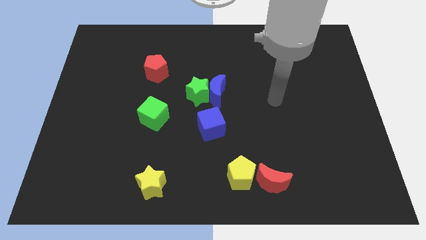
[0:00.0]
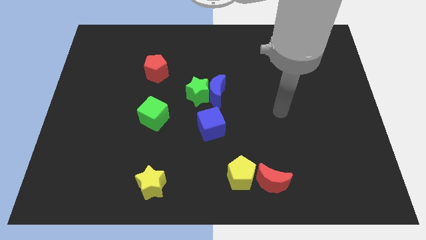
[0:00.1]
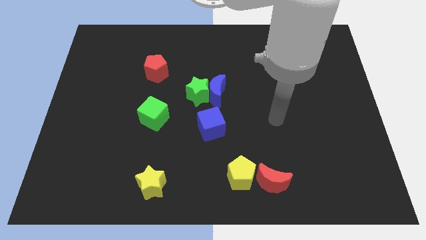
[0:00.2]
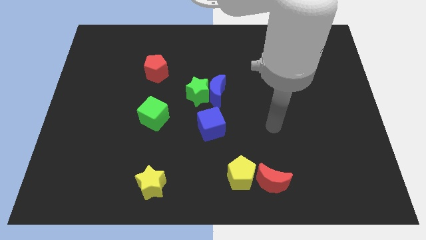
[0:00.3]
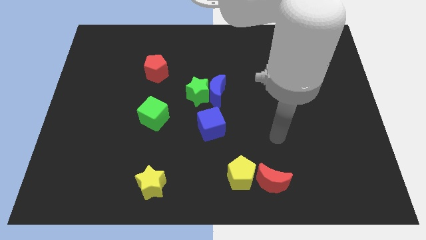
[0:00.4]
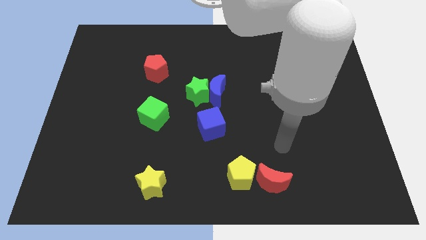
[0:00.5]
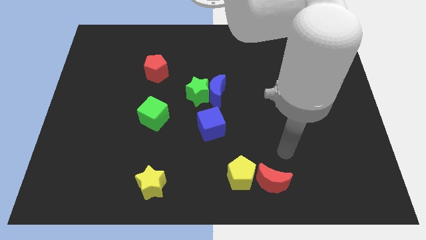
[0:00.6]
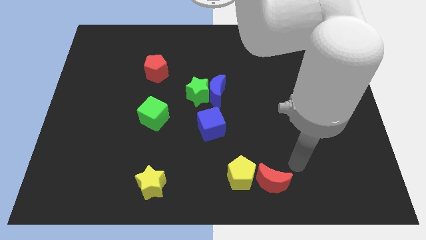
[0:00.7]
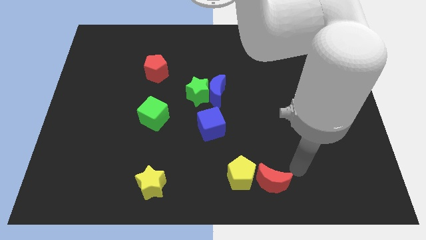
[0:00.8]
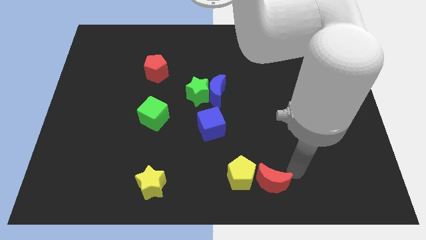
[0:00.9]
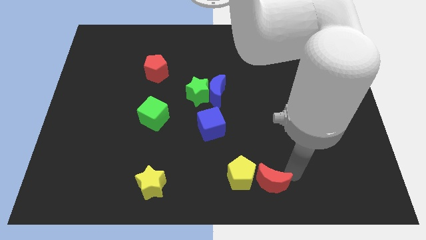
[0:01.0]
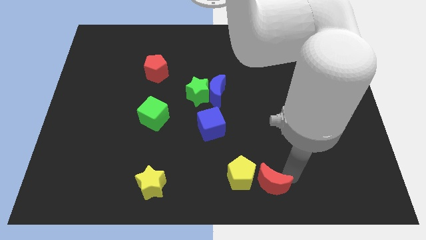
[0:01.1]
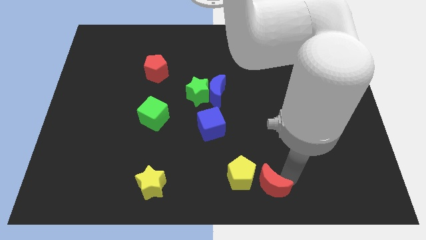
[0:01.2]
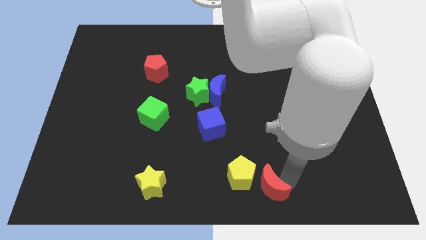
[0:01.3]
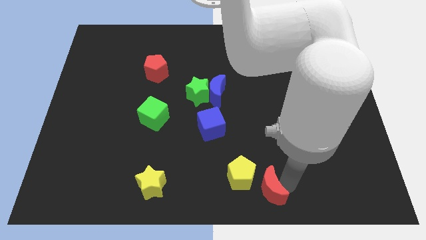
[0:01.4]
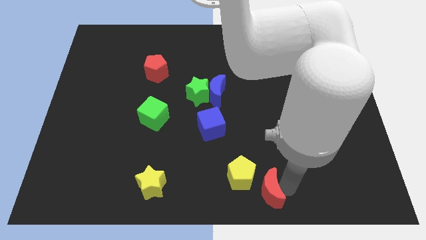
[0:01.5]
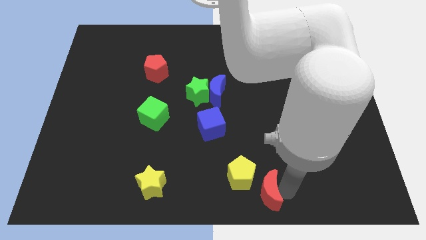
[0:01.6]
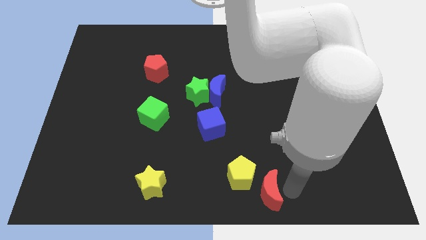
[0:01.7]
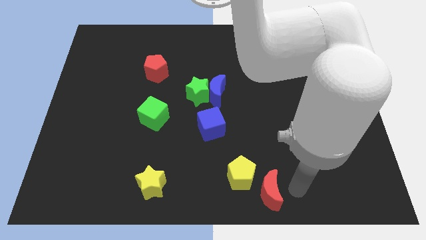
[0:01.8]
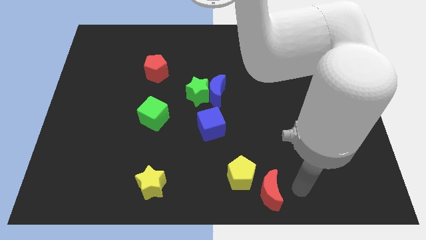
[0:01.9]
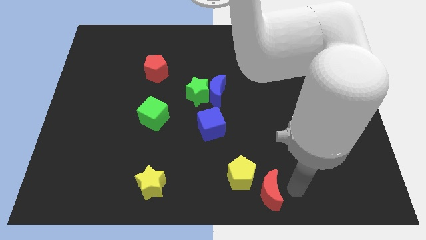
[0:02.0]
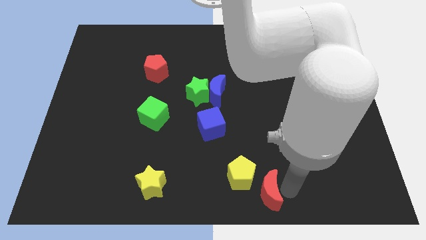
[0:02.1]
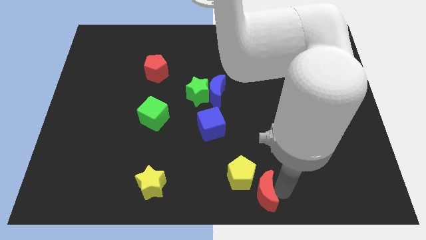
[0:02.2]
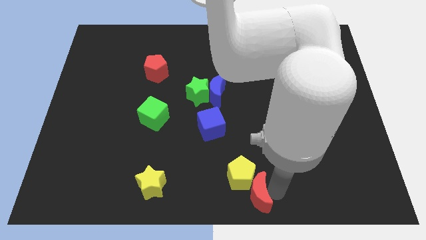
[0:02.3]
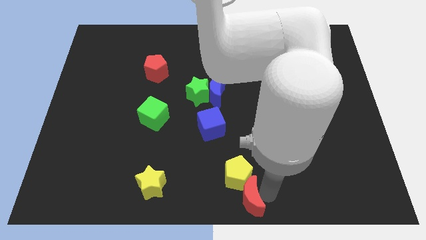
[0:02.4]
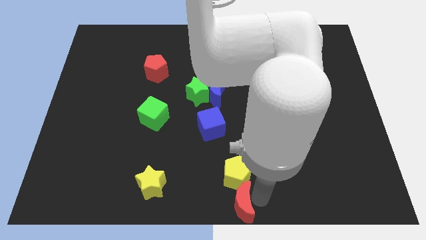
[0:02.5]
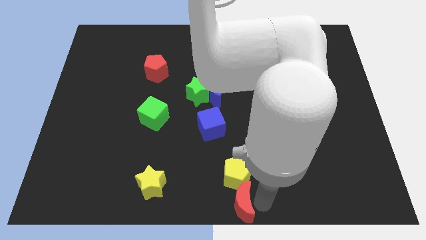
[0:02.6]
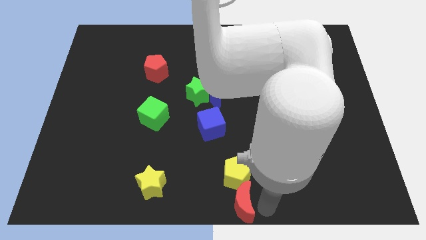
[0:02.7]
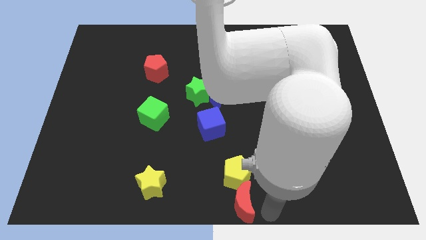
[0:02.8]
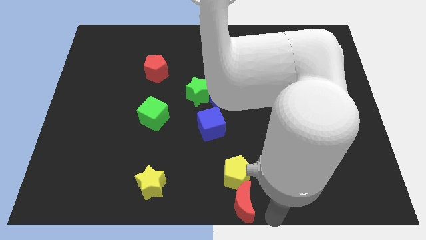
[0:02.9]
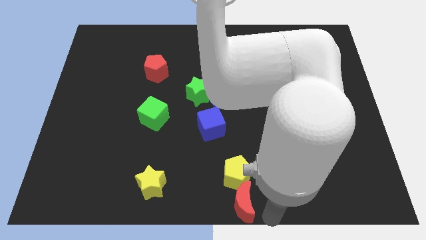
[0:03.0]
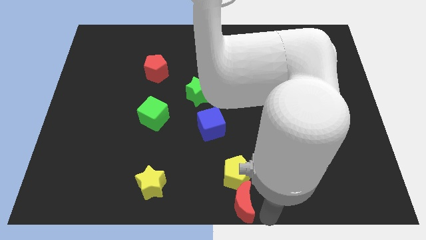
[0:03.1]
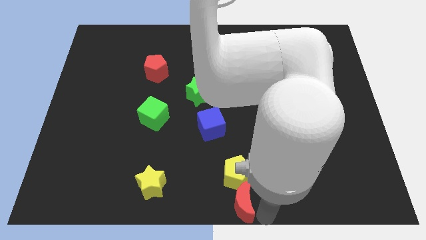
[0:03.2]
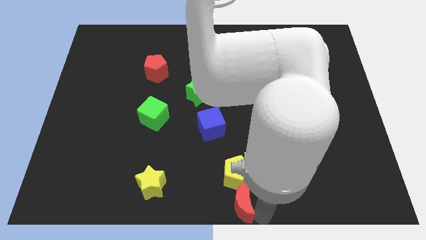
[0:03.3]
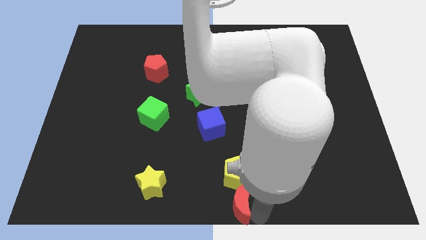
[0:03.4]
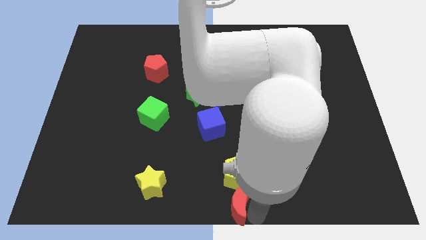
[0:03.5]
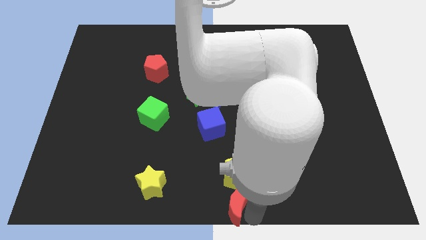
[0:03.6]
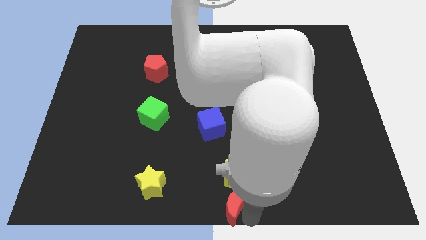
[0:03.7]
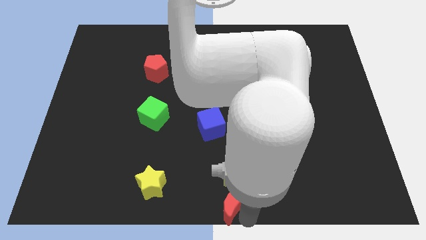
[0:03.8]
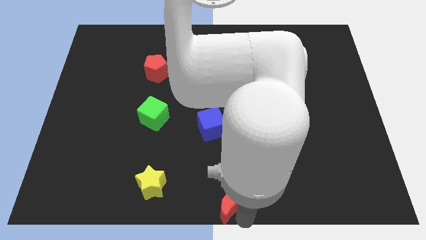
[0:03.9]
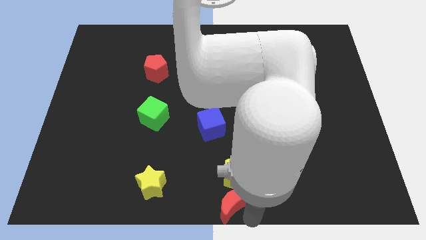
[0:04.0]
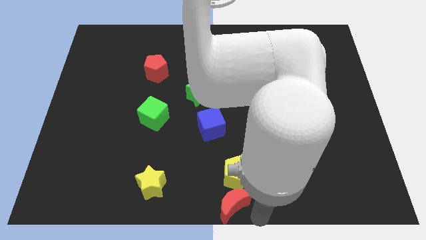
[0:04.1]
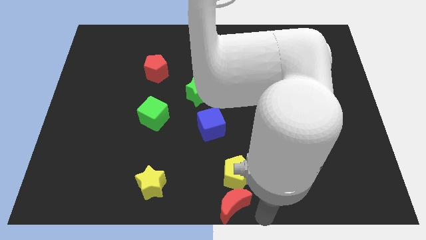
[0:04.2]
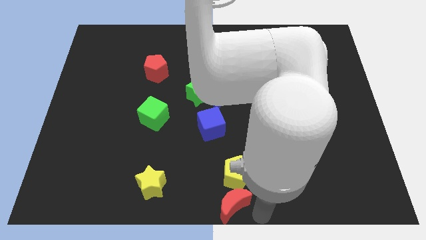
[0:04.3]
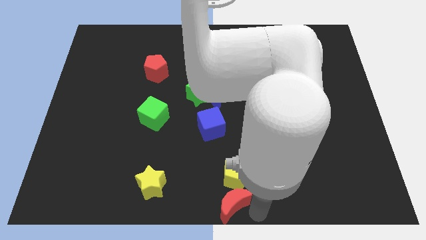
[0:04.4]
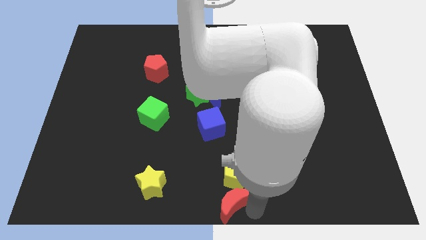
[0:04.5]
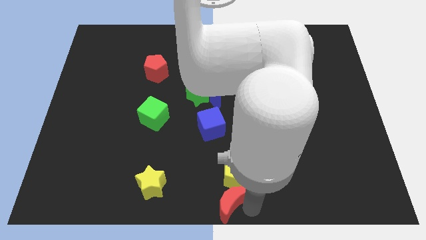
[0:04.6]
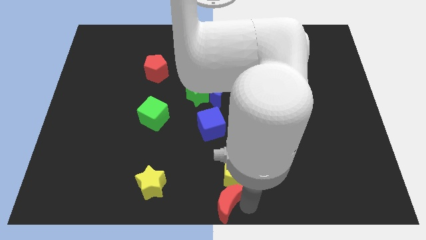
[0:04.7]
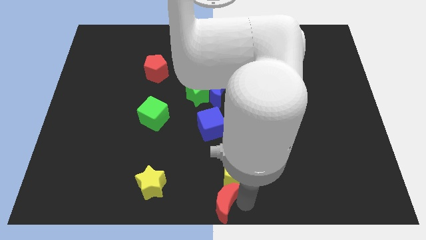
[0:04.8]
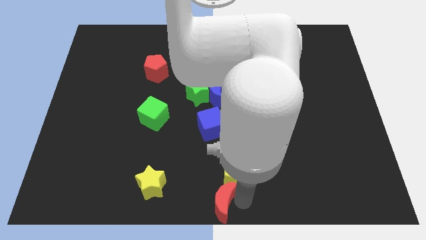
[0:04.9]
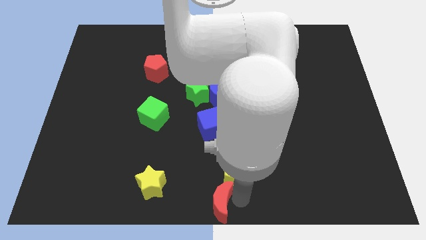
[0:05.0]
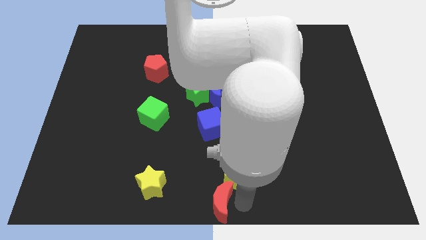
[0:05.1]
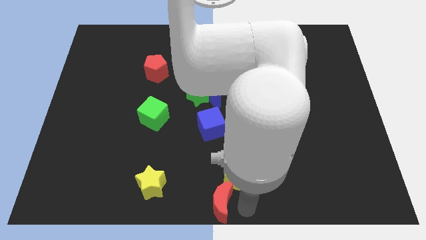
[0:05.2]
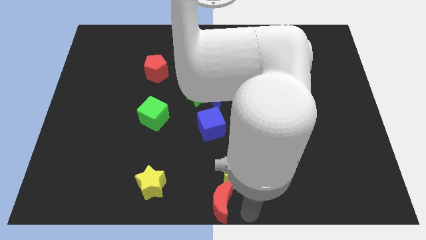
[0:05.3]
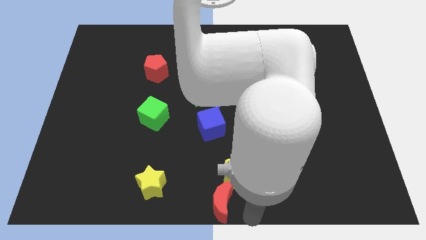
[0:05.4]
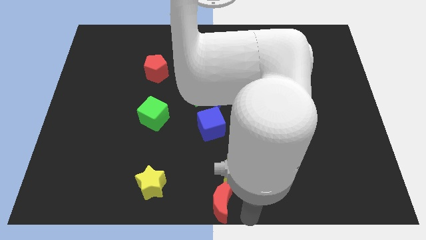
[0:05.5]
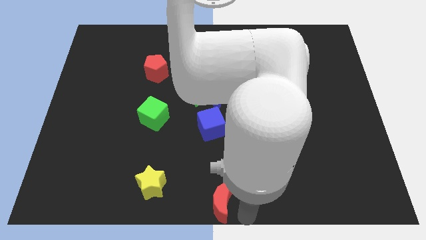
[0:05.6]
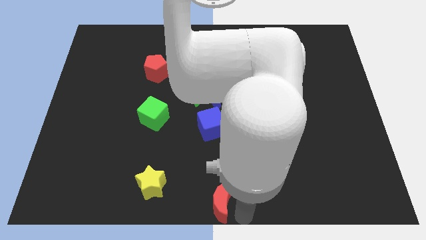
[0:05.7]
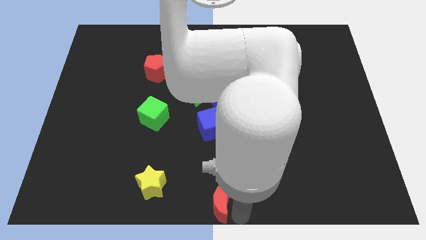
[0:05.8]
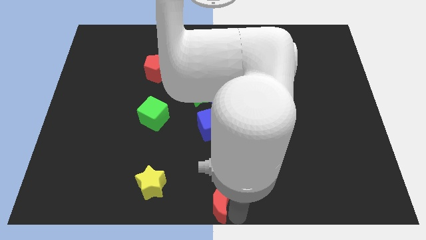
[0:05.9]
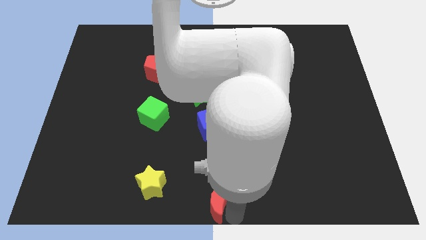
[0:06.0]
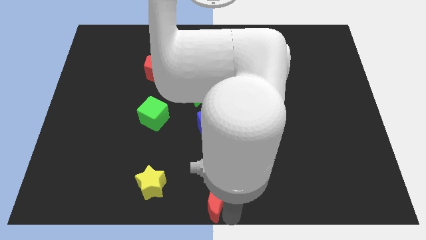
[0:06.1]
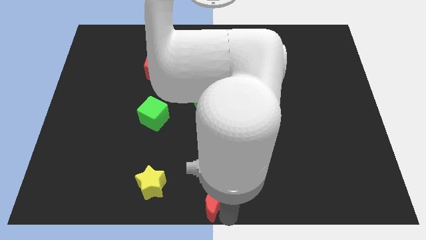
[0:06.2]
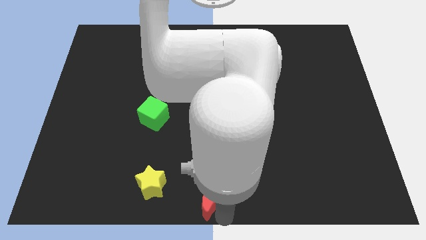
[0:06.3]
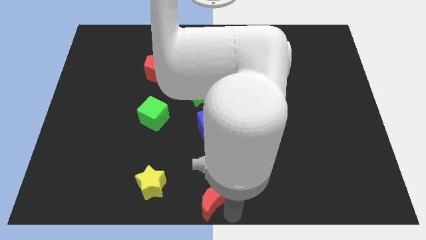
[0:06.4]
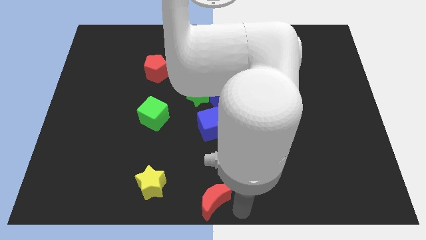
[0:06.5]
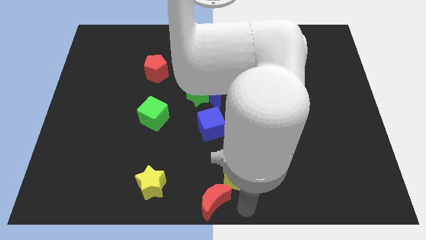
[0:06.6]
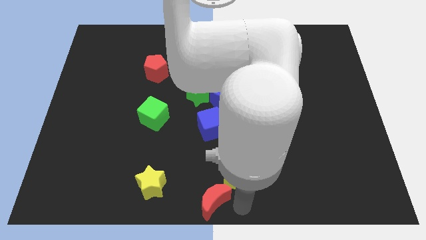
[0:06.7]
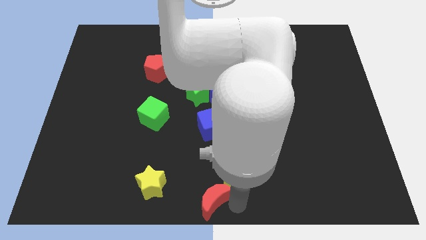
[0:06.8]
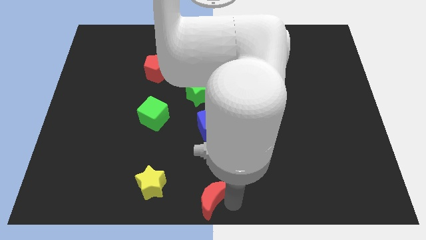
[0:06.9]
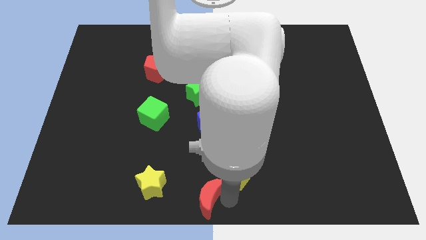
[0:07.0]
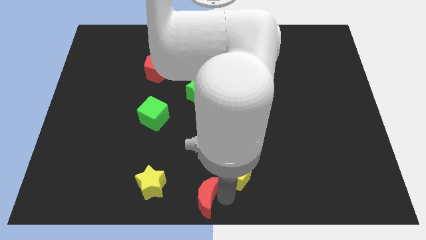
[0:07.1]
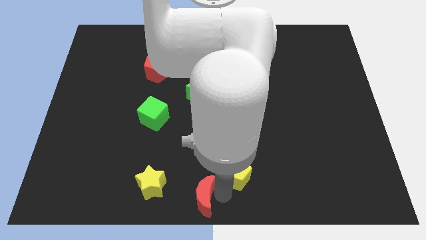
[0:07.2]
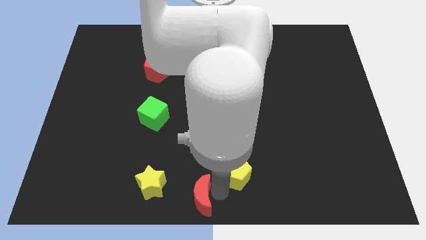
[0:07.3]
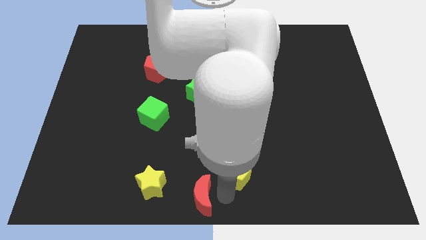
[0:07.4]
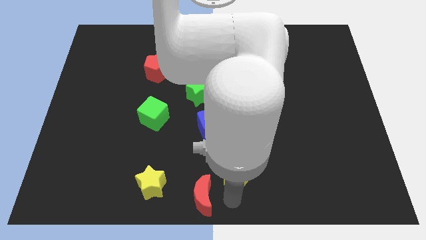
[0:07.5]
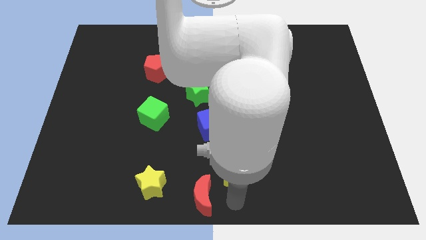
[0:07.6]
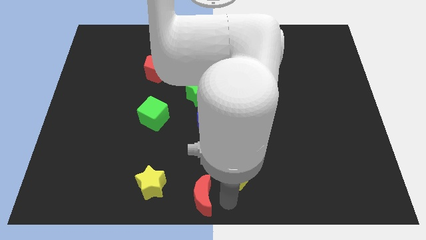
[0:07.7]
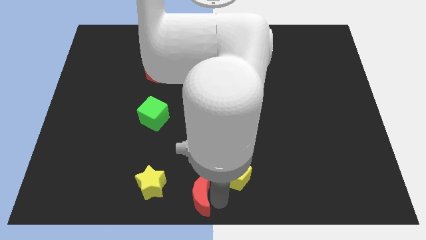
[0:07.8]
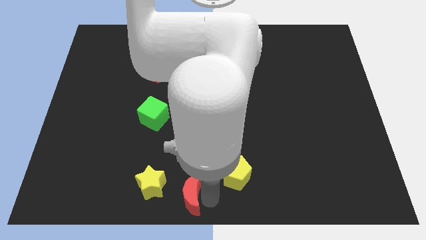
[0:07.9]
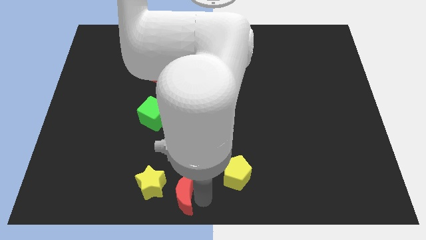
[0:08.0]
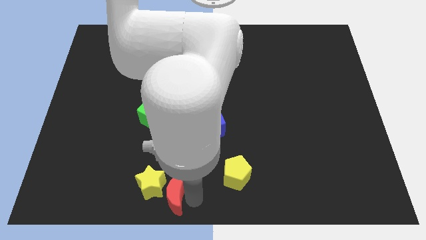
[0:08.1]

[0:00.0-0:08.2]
slide the red moon to the yellow star
